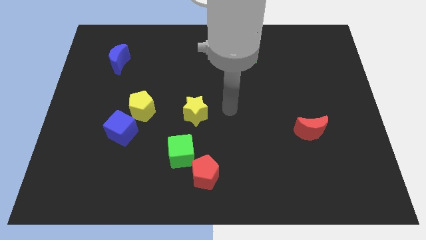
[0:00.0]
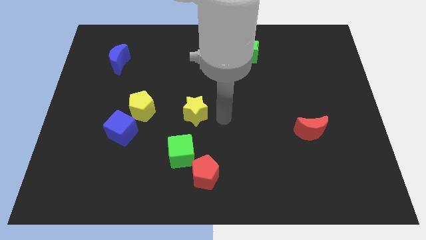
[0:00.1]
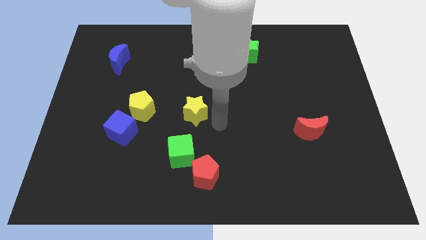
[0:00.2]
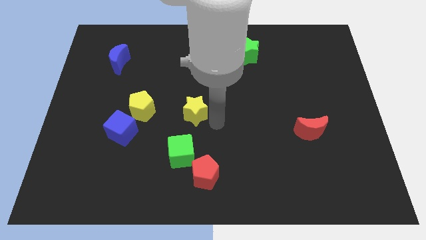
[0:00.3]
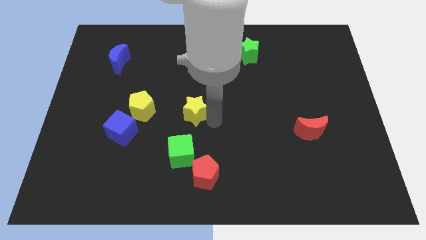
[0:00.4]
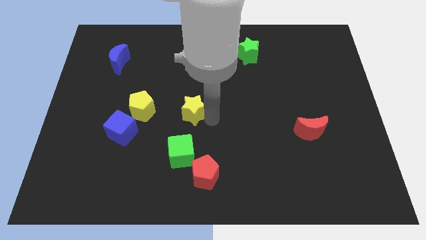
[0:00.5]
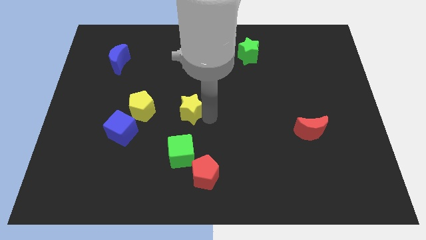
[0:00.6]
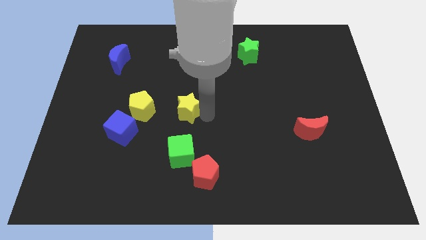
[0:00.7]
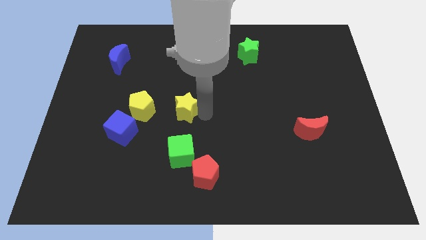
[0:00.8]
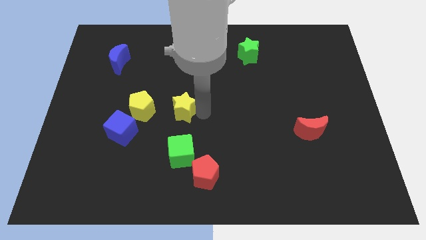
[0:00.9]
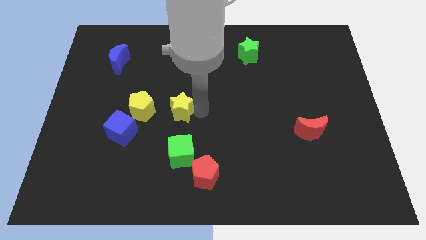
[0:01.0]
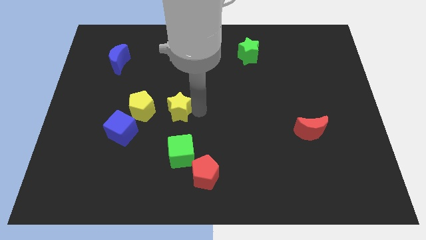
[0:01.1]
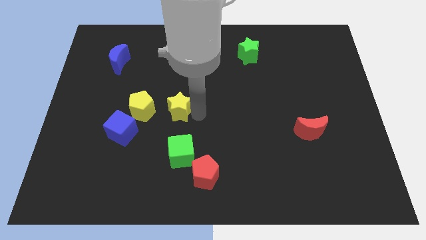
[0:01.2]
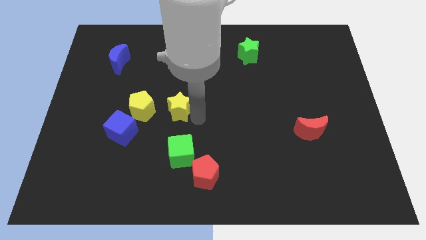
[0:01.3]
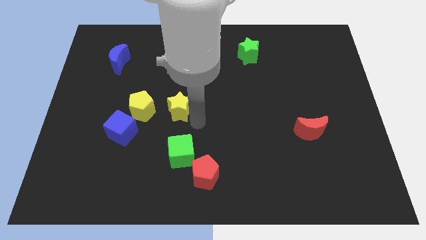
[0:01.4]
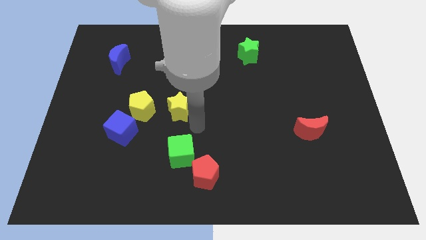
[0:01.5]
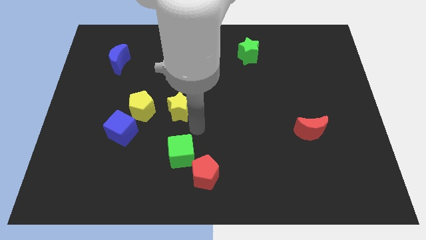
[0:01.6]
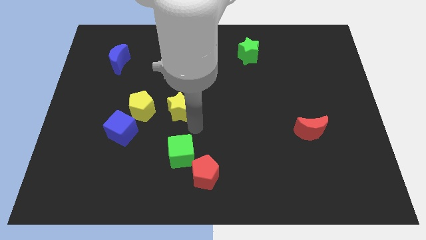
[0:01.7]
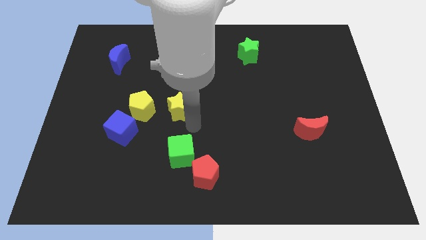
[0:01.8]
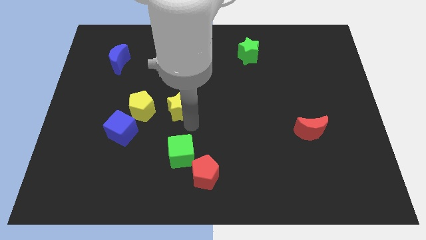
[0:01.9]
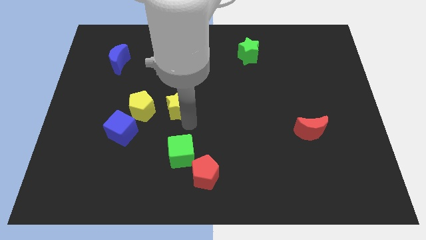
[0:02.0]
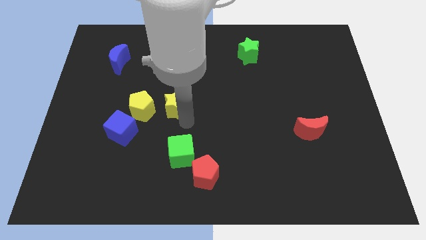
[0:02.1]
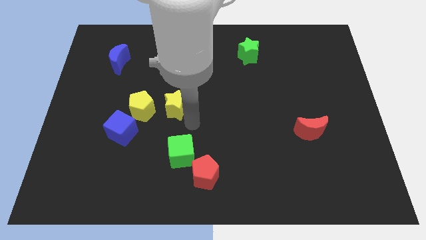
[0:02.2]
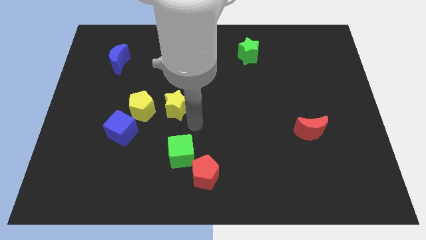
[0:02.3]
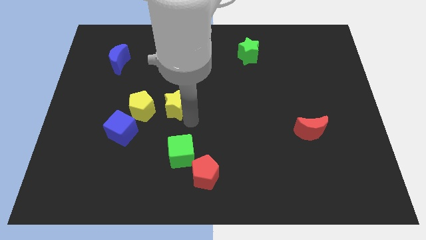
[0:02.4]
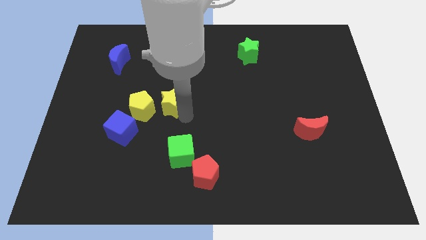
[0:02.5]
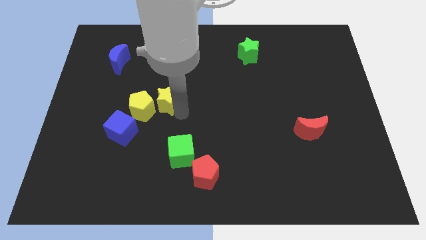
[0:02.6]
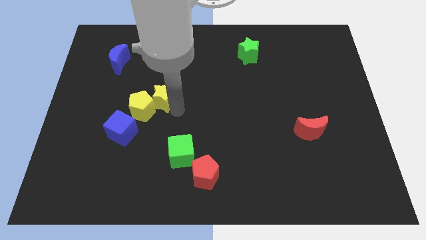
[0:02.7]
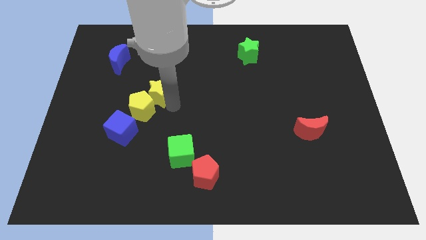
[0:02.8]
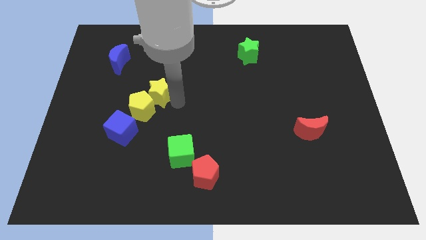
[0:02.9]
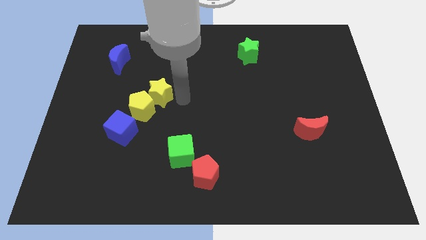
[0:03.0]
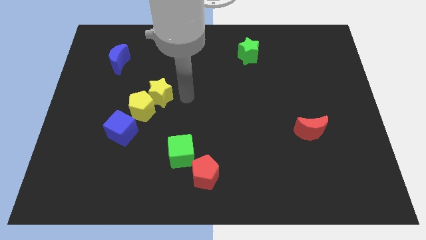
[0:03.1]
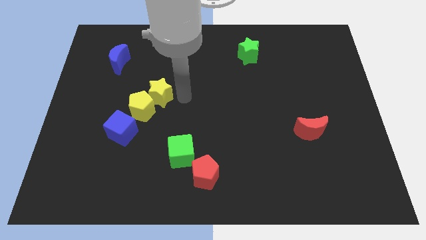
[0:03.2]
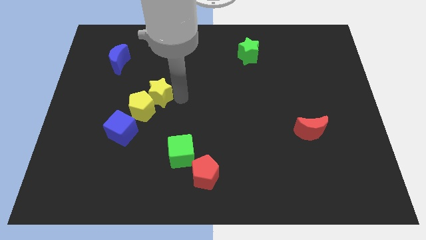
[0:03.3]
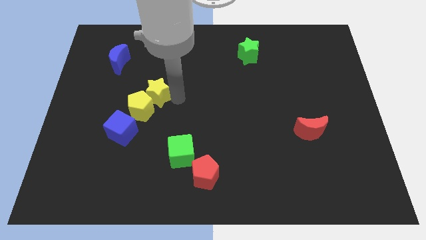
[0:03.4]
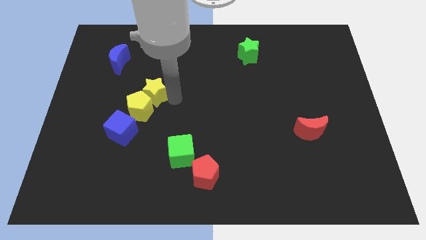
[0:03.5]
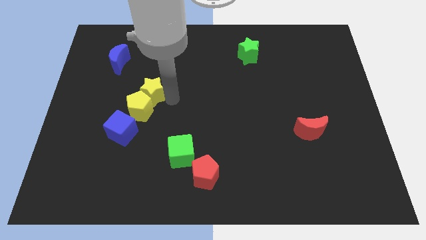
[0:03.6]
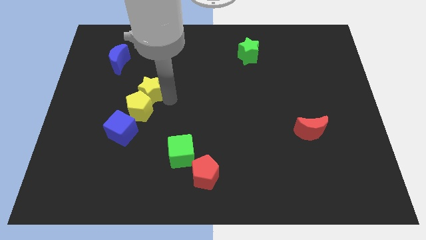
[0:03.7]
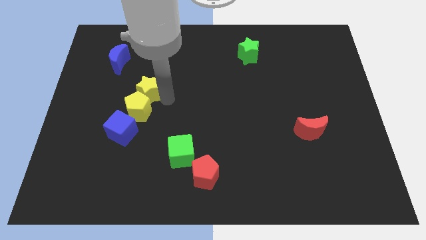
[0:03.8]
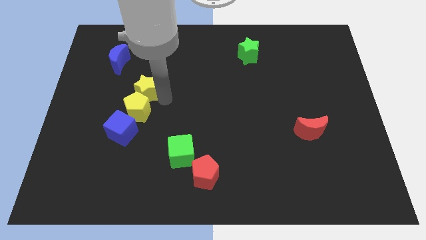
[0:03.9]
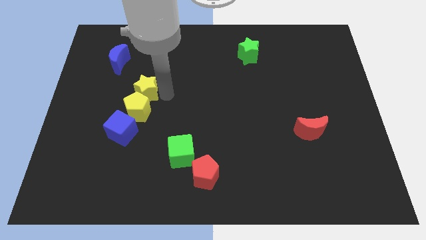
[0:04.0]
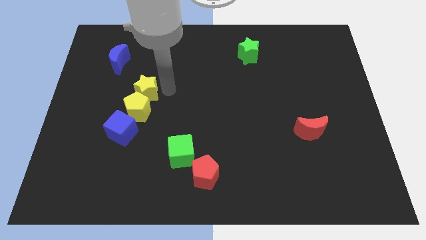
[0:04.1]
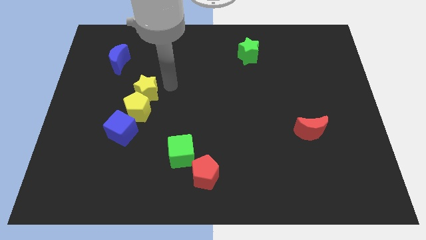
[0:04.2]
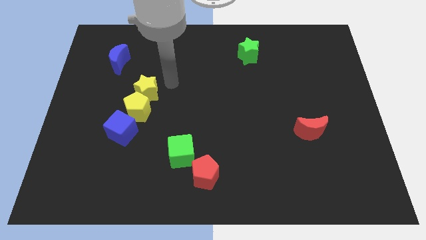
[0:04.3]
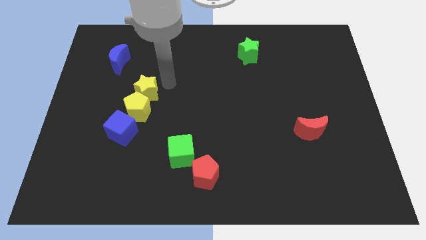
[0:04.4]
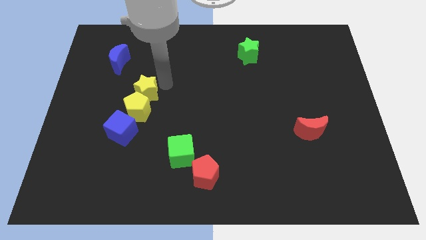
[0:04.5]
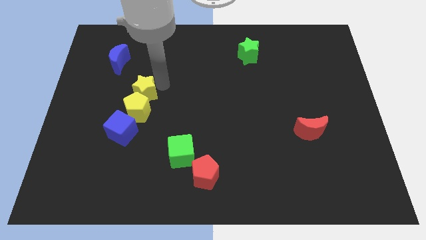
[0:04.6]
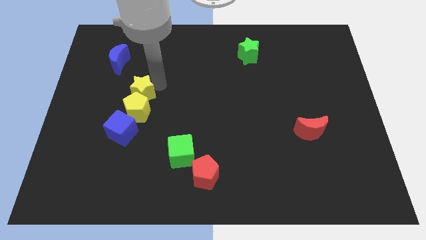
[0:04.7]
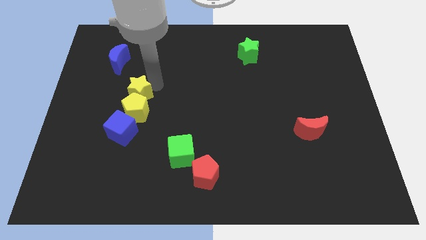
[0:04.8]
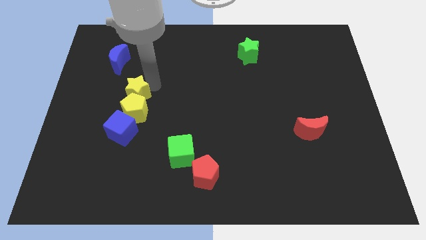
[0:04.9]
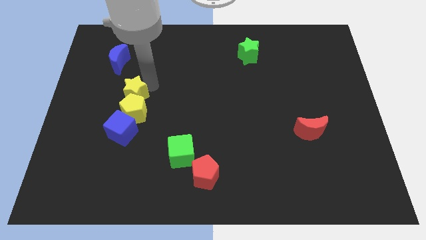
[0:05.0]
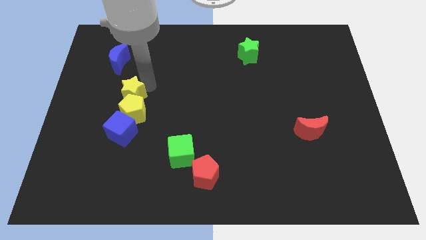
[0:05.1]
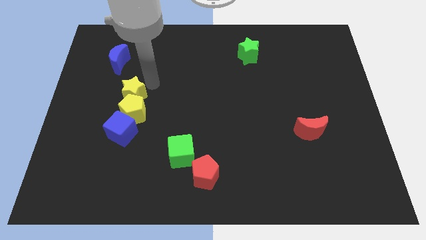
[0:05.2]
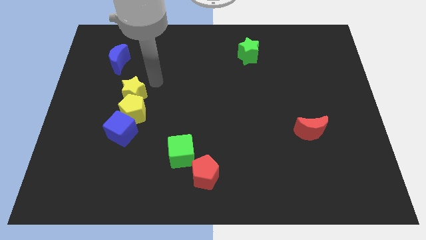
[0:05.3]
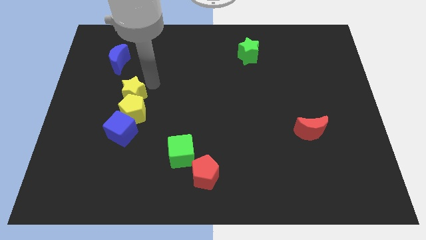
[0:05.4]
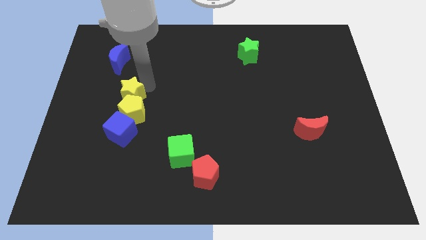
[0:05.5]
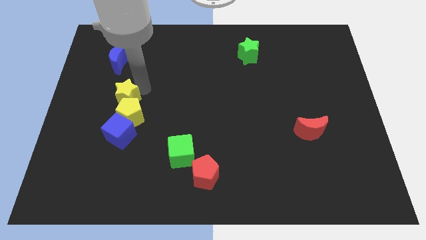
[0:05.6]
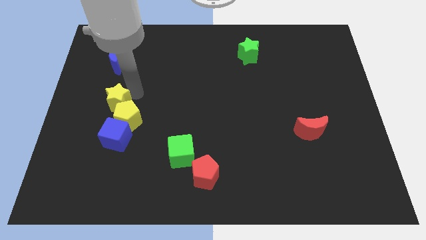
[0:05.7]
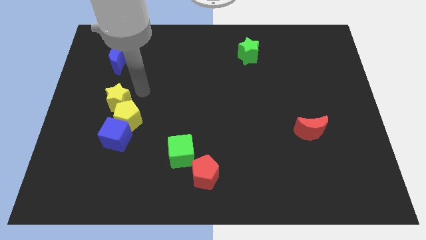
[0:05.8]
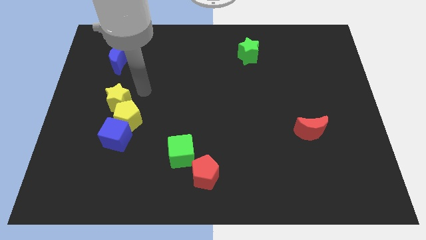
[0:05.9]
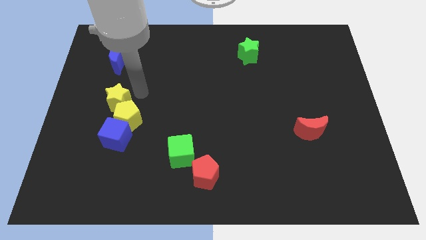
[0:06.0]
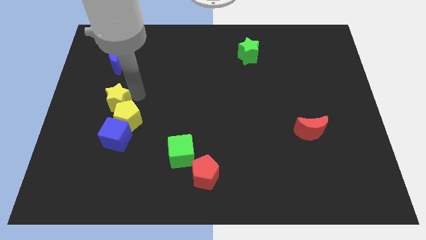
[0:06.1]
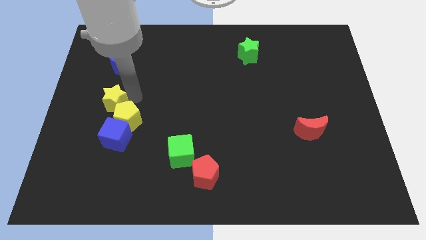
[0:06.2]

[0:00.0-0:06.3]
slide the yellow star to the left side of the yellow pentagon

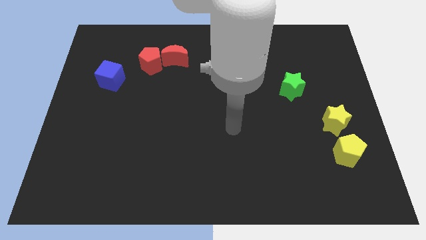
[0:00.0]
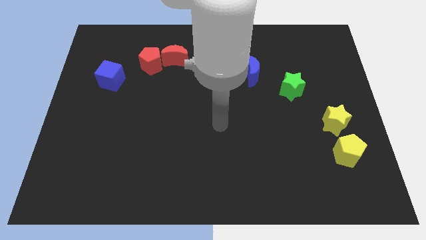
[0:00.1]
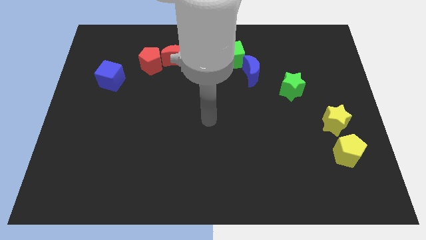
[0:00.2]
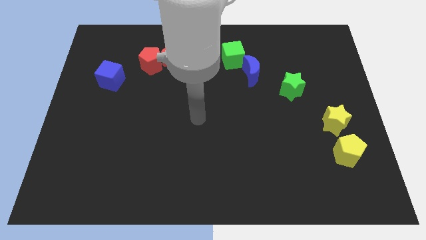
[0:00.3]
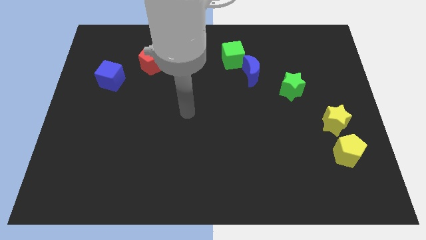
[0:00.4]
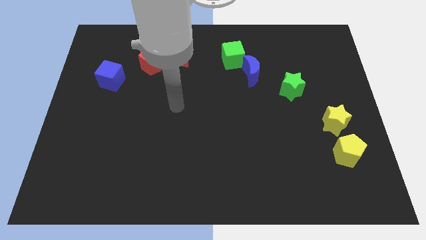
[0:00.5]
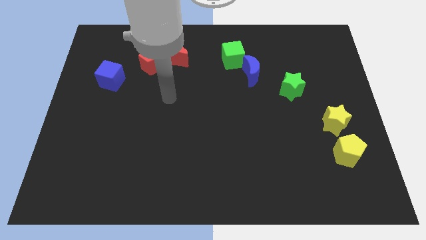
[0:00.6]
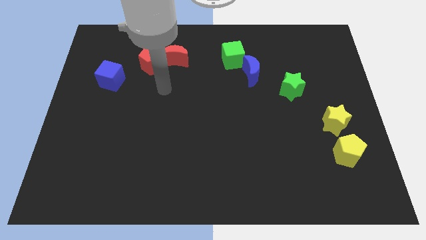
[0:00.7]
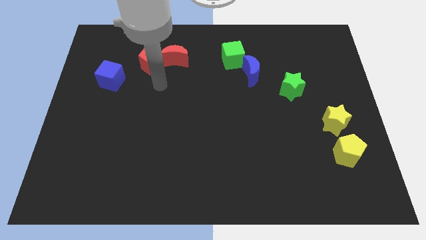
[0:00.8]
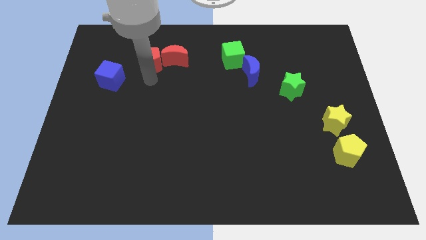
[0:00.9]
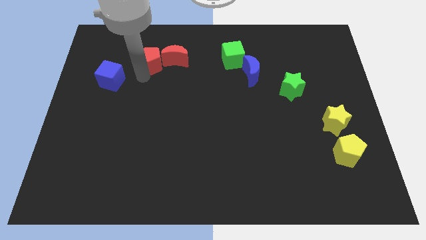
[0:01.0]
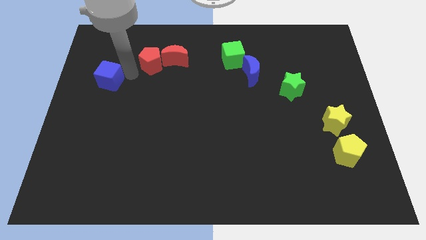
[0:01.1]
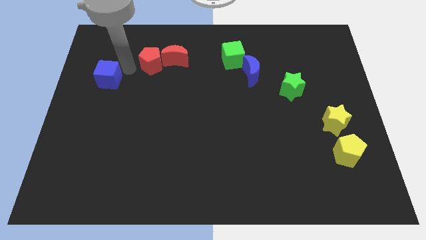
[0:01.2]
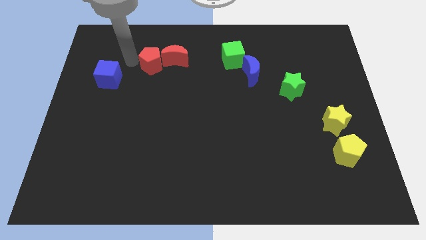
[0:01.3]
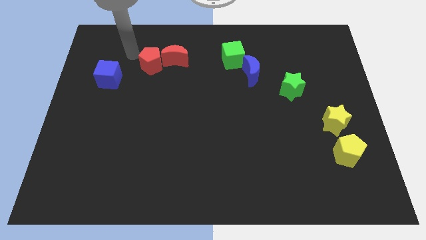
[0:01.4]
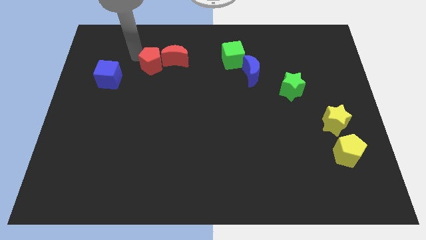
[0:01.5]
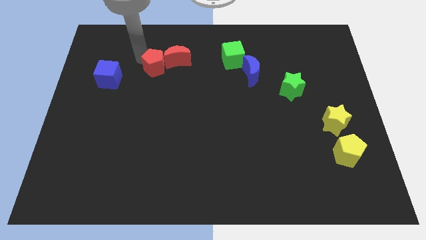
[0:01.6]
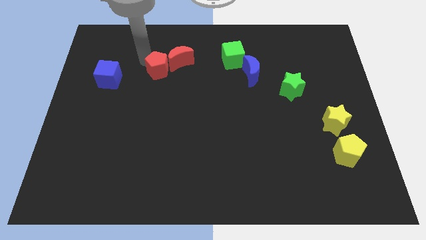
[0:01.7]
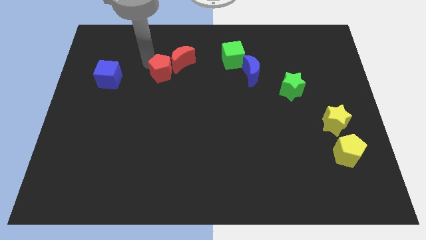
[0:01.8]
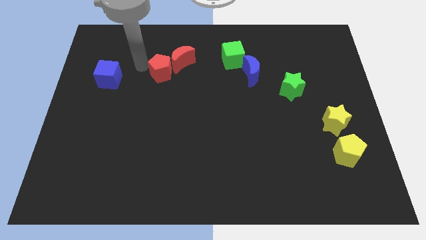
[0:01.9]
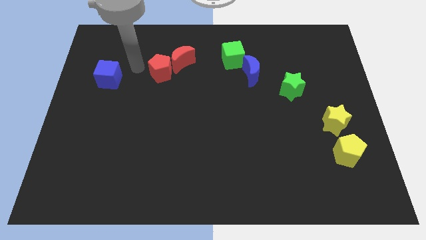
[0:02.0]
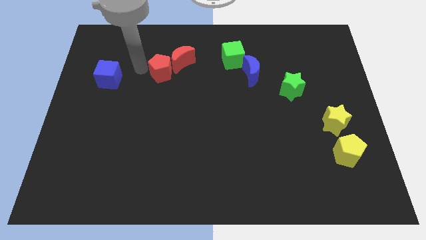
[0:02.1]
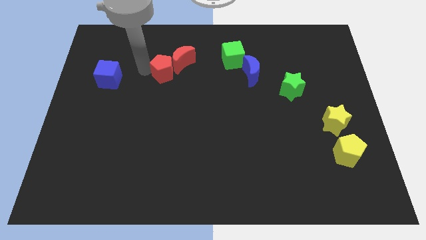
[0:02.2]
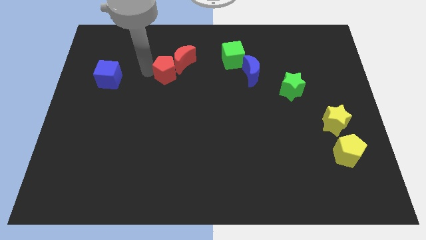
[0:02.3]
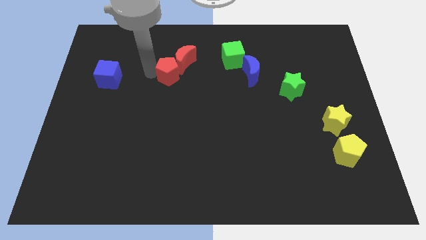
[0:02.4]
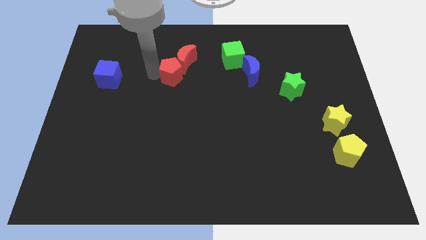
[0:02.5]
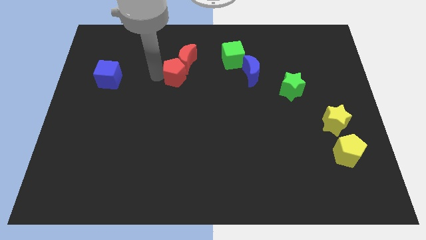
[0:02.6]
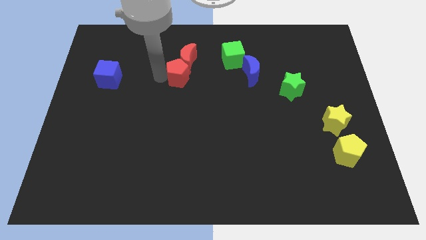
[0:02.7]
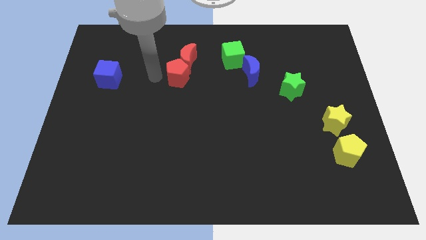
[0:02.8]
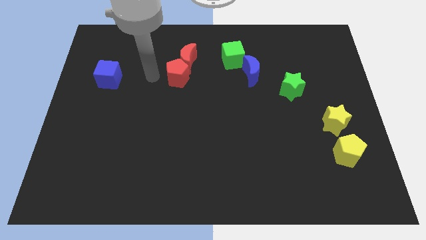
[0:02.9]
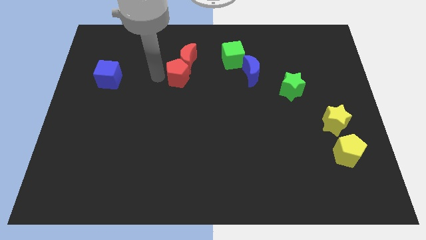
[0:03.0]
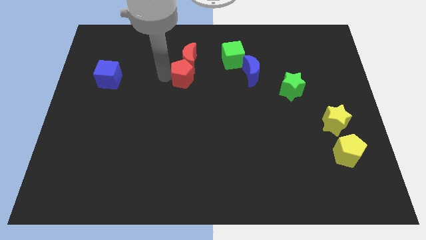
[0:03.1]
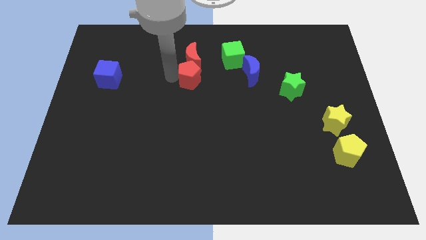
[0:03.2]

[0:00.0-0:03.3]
put the red pentagon to the bottom right of the red moon
